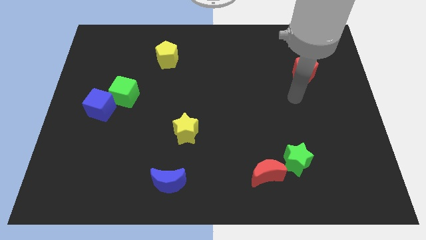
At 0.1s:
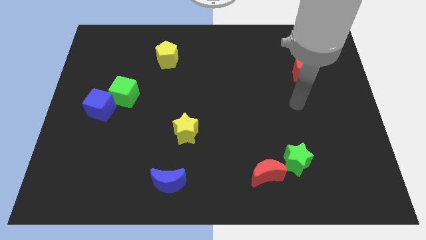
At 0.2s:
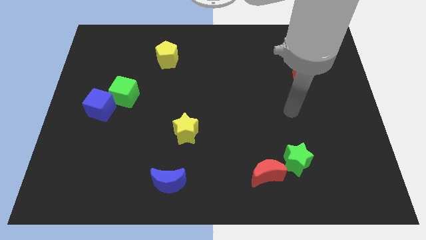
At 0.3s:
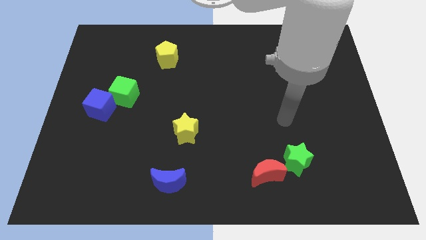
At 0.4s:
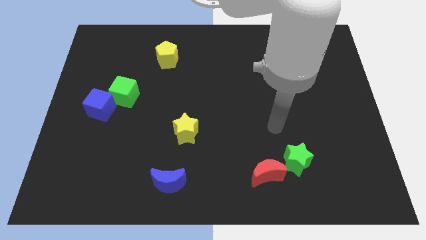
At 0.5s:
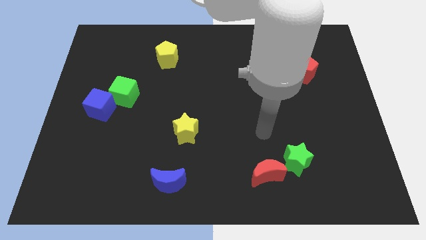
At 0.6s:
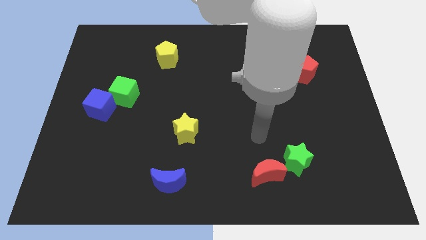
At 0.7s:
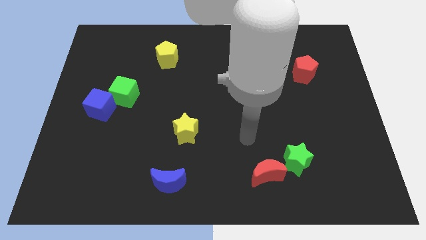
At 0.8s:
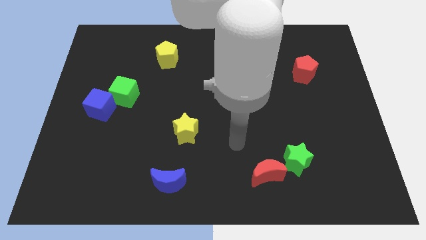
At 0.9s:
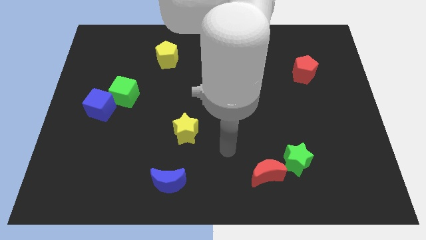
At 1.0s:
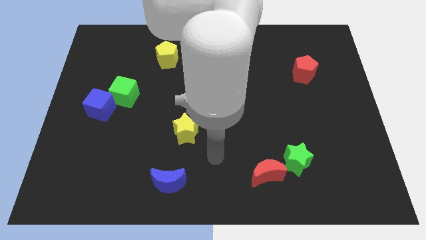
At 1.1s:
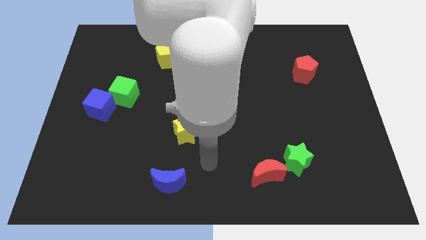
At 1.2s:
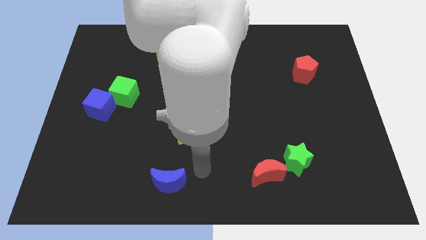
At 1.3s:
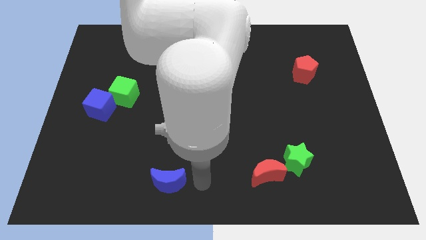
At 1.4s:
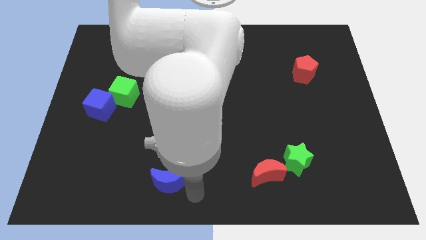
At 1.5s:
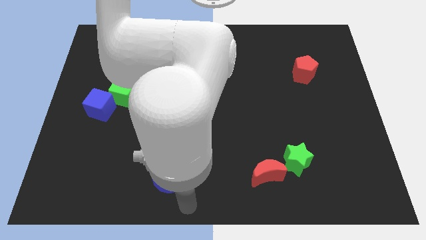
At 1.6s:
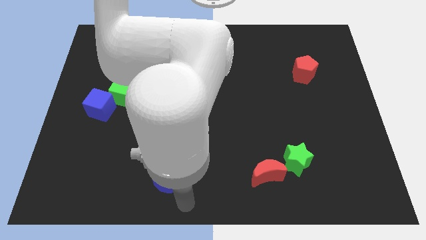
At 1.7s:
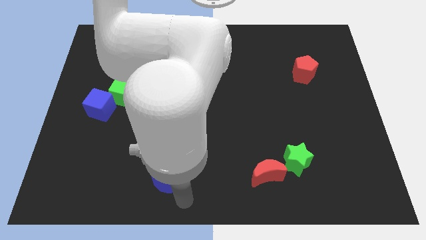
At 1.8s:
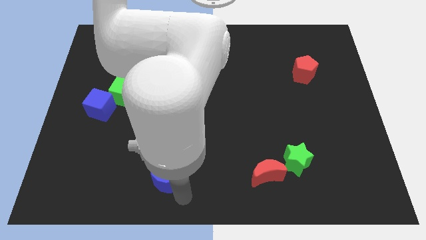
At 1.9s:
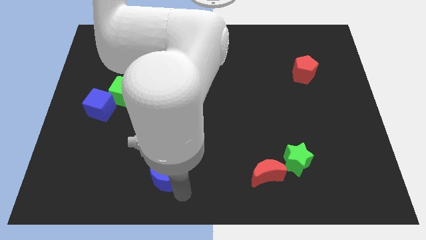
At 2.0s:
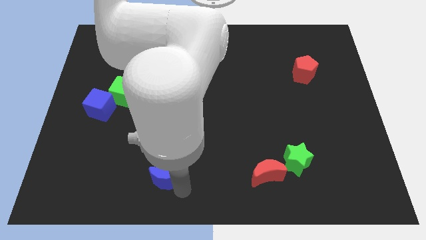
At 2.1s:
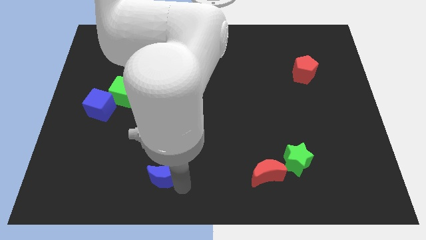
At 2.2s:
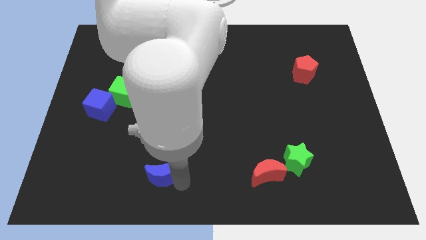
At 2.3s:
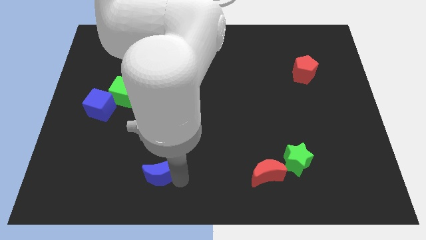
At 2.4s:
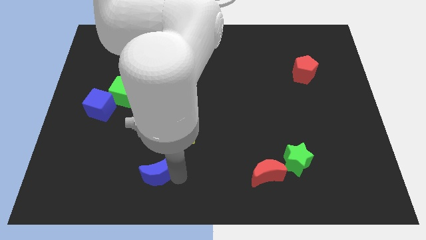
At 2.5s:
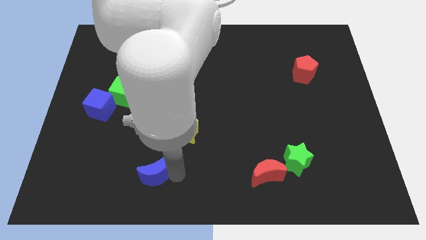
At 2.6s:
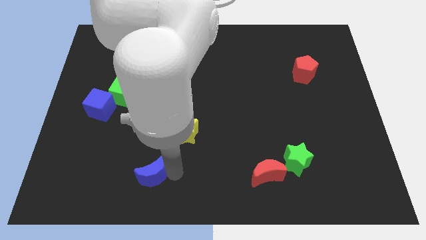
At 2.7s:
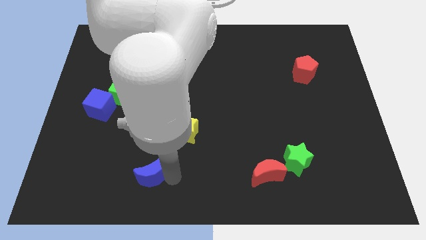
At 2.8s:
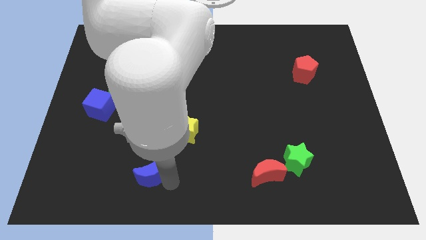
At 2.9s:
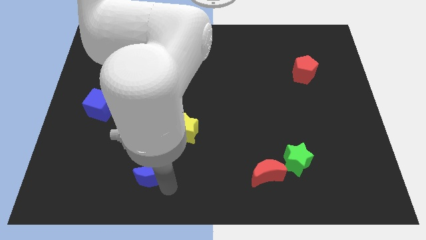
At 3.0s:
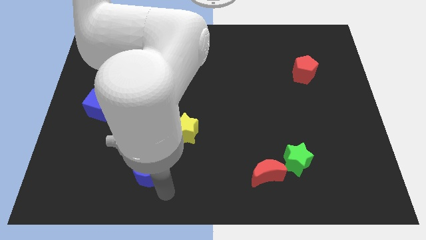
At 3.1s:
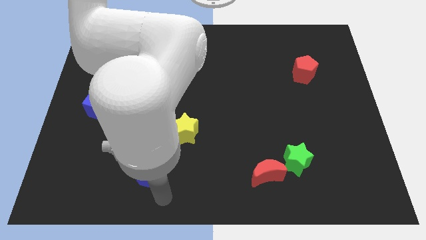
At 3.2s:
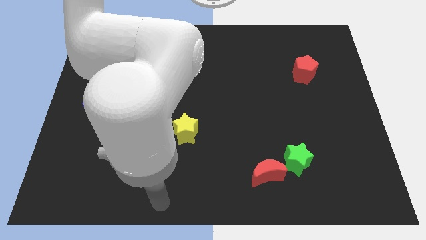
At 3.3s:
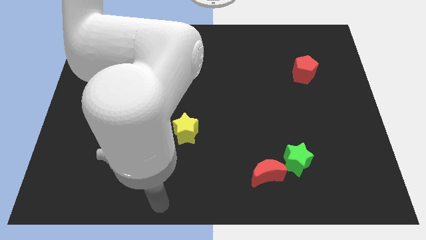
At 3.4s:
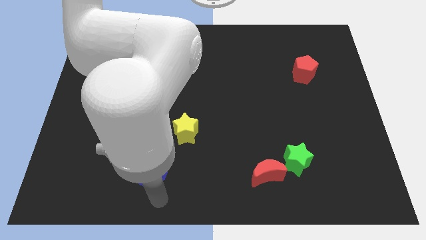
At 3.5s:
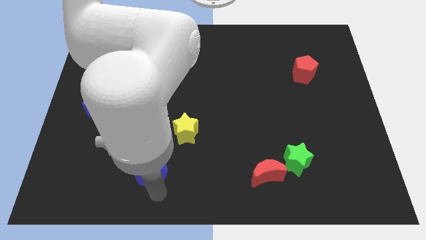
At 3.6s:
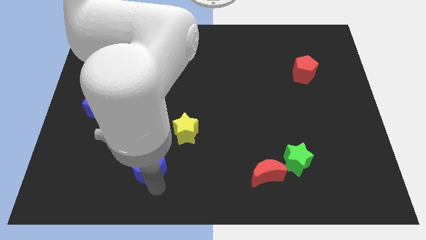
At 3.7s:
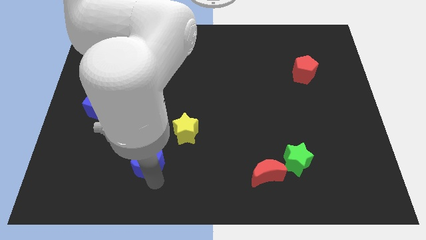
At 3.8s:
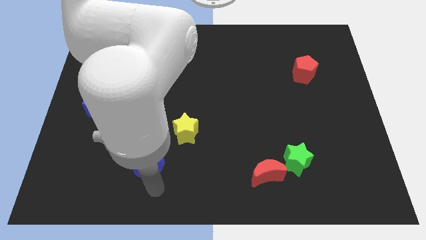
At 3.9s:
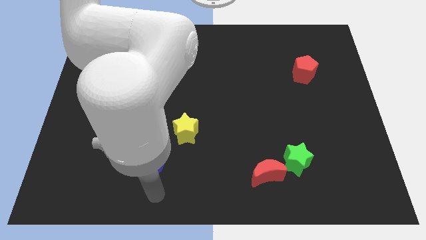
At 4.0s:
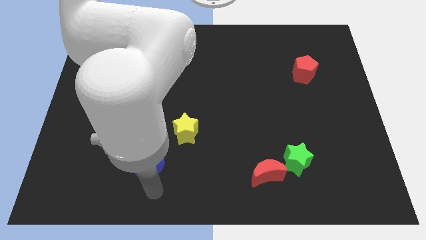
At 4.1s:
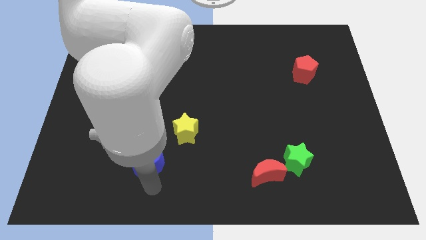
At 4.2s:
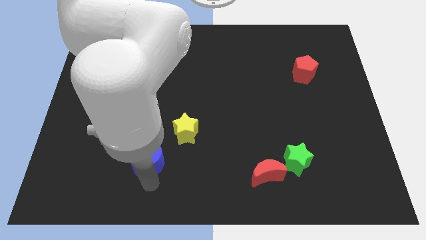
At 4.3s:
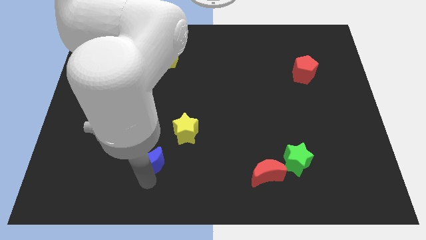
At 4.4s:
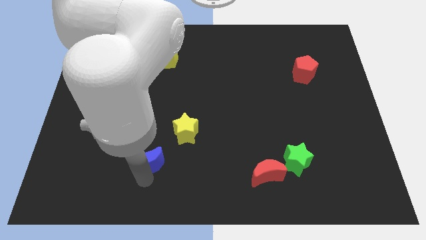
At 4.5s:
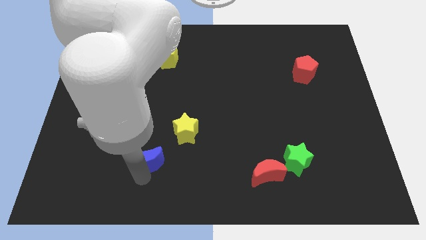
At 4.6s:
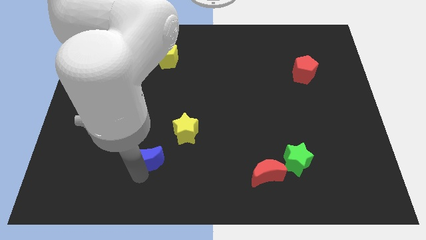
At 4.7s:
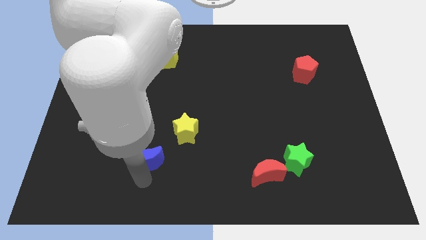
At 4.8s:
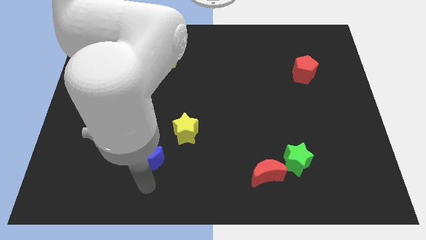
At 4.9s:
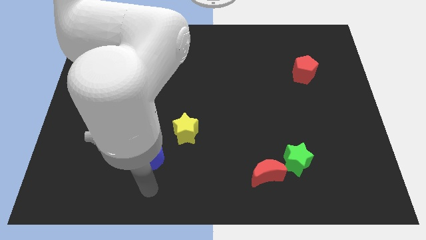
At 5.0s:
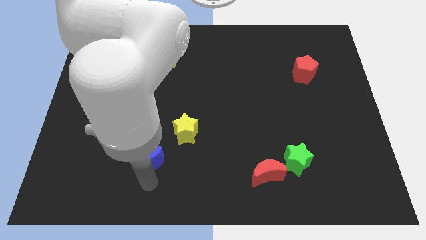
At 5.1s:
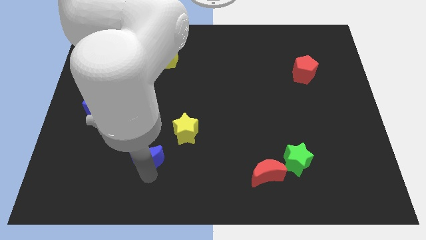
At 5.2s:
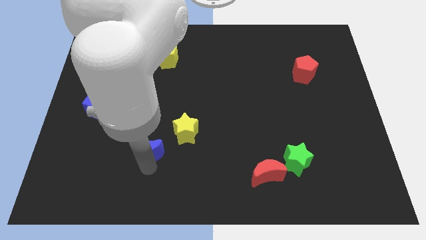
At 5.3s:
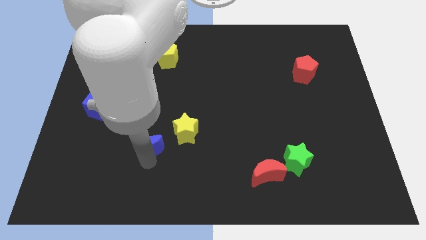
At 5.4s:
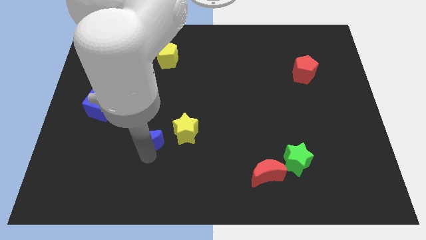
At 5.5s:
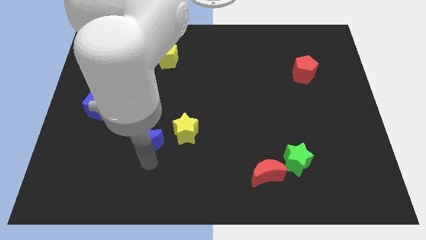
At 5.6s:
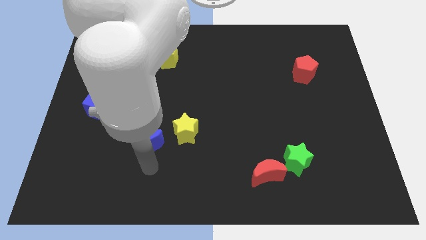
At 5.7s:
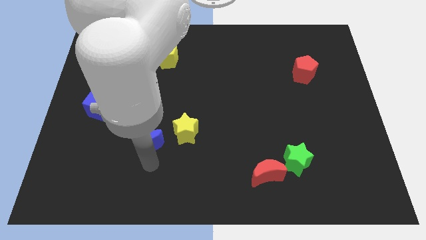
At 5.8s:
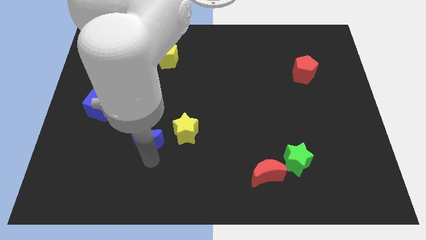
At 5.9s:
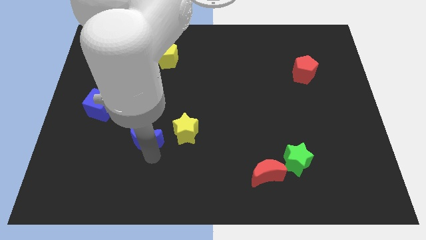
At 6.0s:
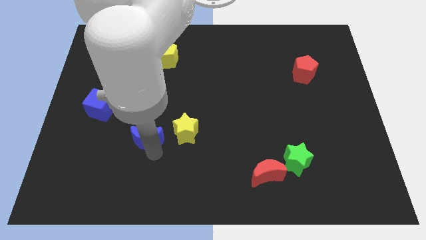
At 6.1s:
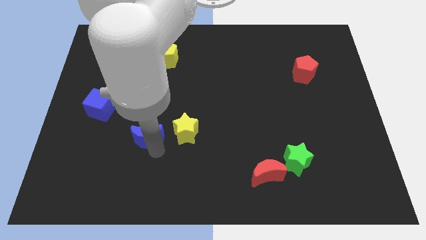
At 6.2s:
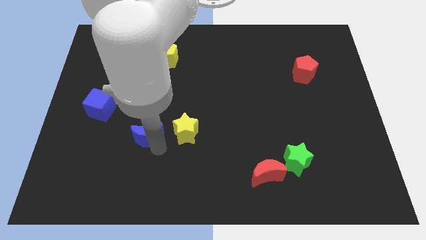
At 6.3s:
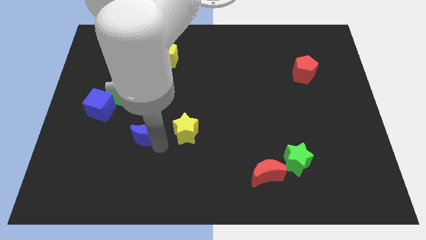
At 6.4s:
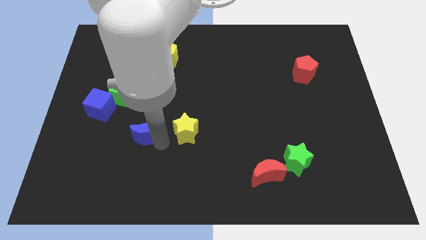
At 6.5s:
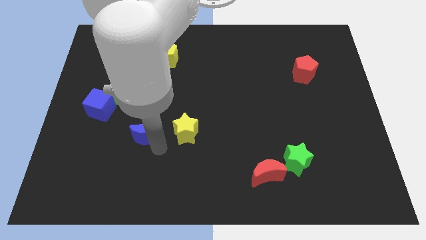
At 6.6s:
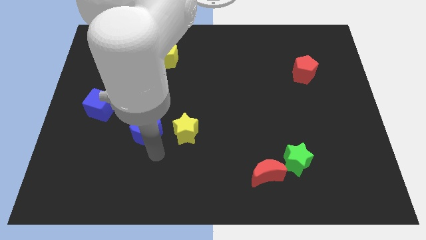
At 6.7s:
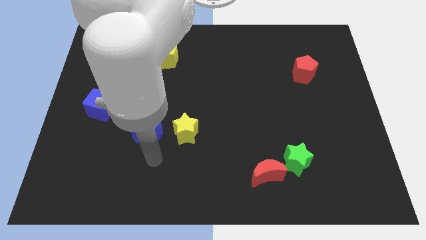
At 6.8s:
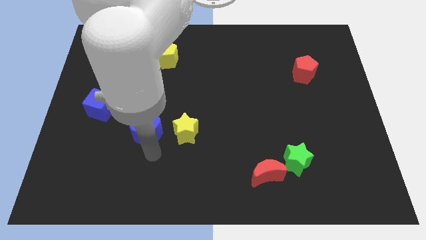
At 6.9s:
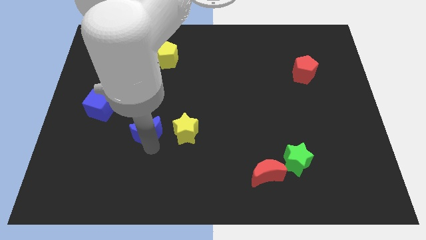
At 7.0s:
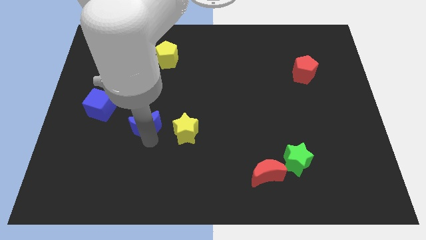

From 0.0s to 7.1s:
push the blue moon to the bottom right of the green cube
